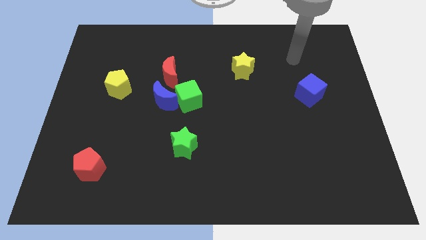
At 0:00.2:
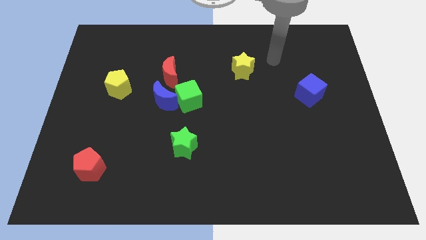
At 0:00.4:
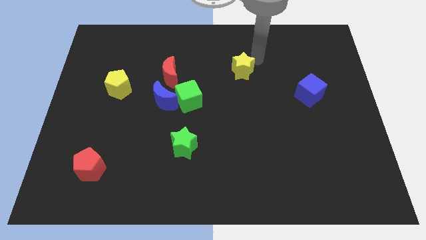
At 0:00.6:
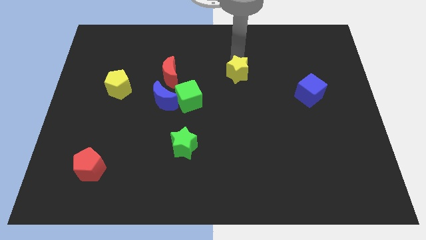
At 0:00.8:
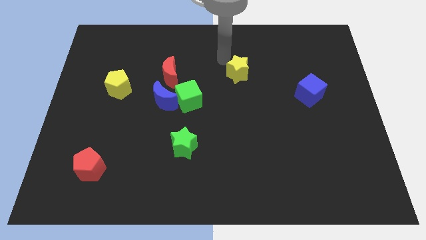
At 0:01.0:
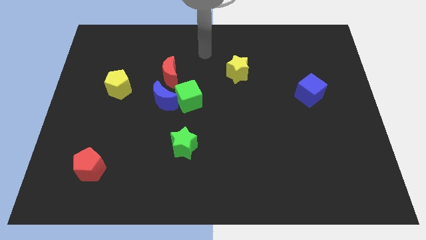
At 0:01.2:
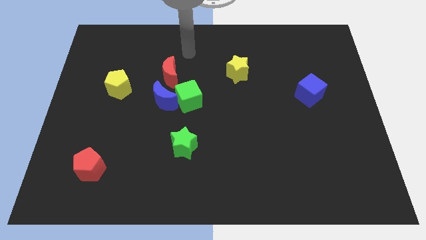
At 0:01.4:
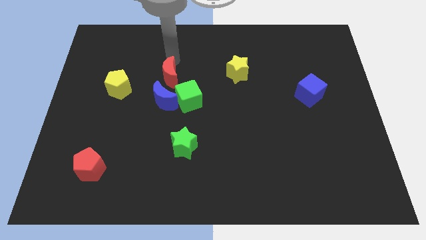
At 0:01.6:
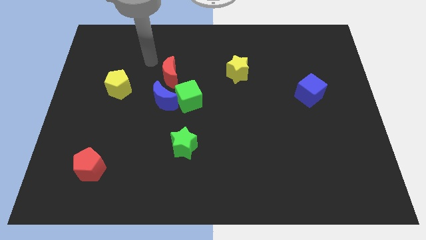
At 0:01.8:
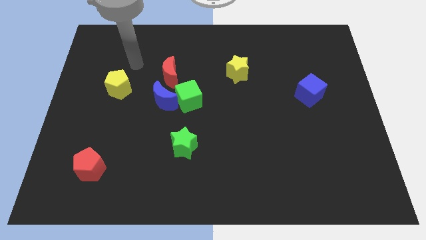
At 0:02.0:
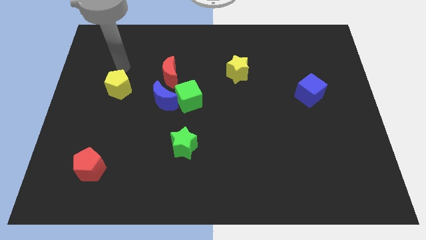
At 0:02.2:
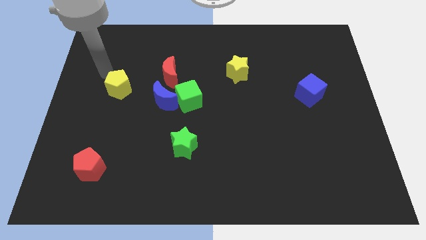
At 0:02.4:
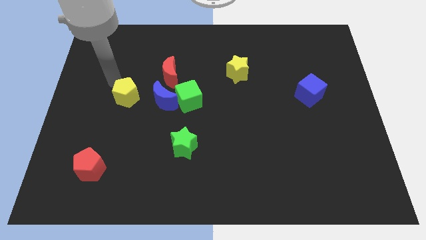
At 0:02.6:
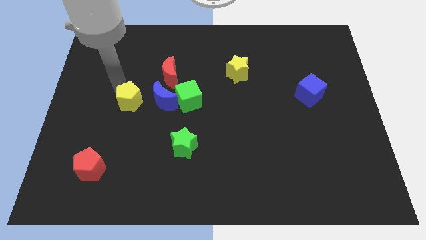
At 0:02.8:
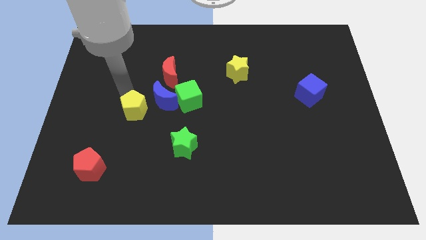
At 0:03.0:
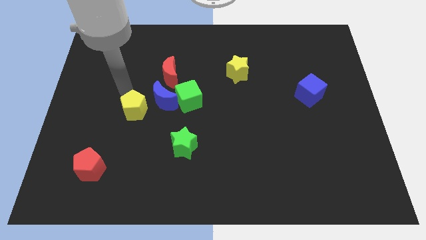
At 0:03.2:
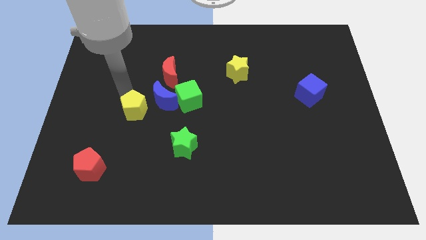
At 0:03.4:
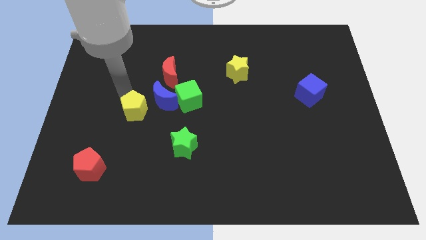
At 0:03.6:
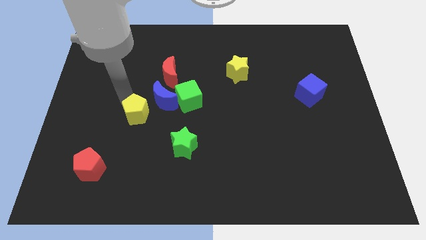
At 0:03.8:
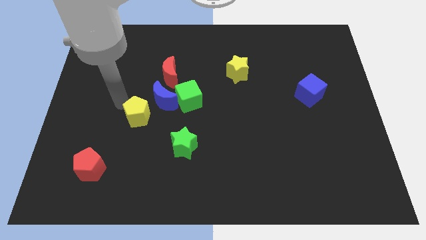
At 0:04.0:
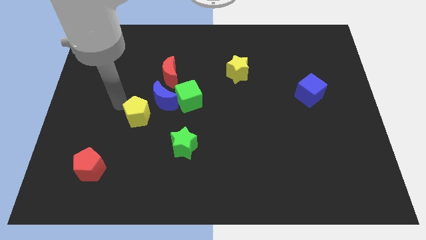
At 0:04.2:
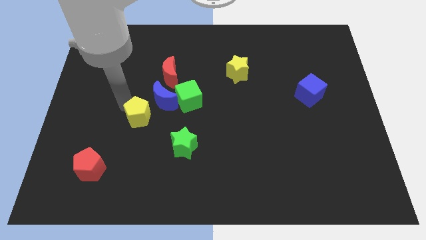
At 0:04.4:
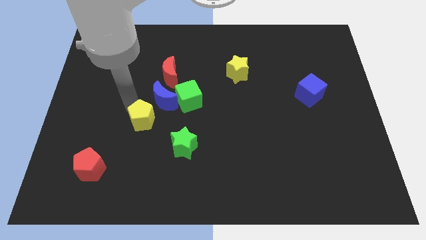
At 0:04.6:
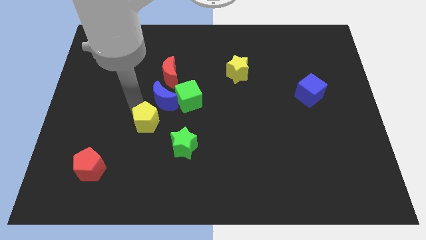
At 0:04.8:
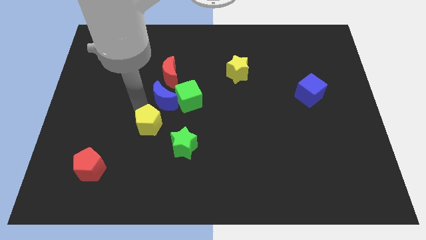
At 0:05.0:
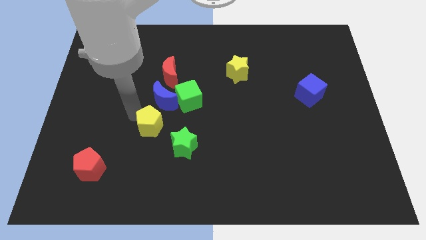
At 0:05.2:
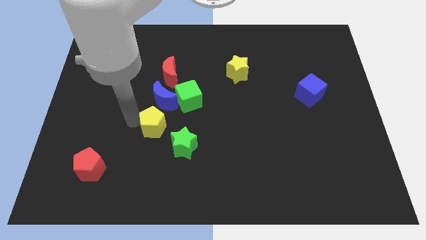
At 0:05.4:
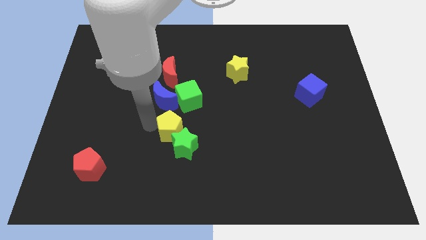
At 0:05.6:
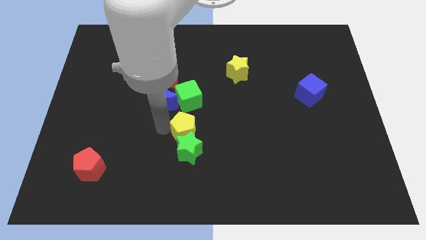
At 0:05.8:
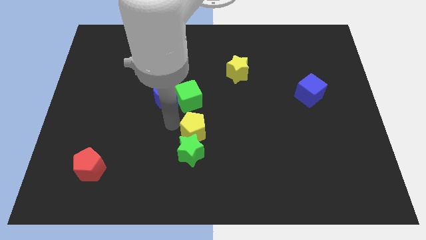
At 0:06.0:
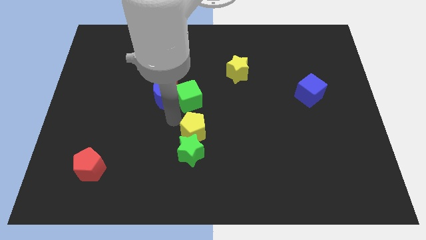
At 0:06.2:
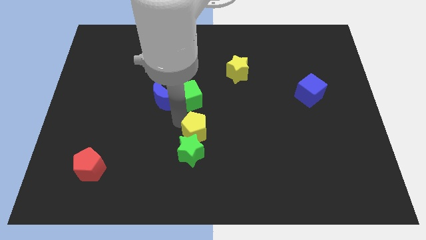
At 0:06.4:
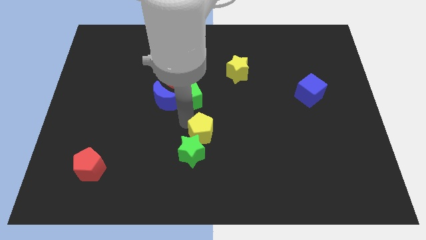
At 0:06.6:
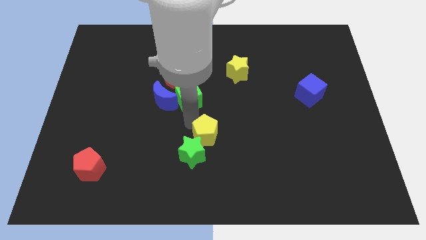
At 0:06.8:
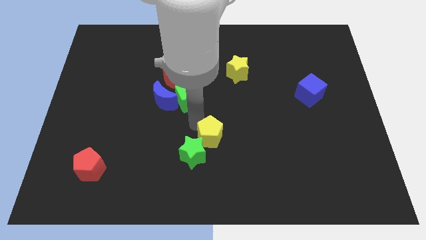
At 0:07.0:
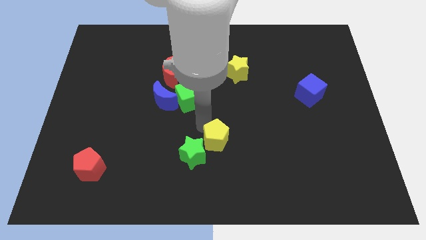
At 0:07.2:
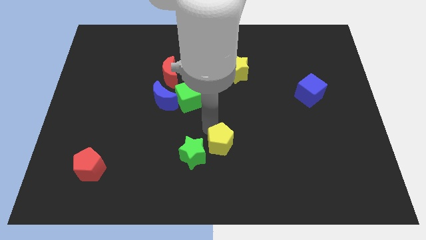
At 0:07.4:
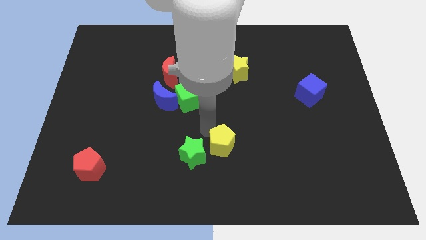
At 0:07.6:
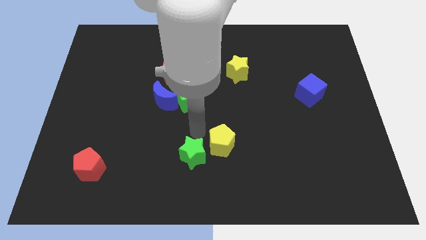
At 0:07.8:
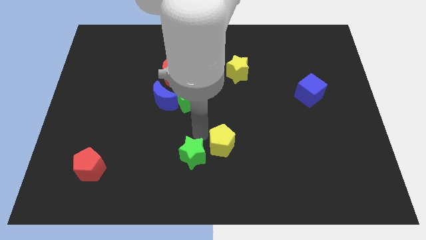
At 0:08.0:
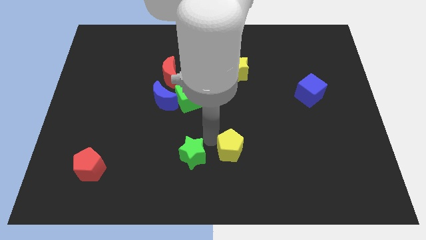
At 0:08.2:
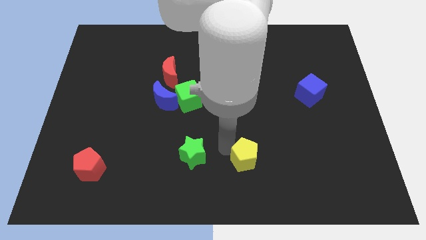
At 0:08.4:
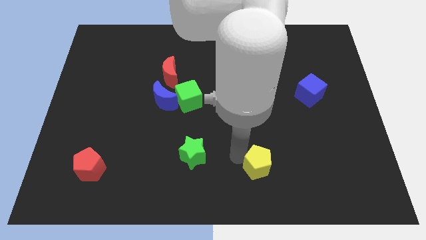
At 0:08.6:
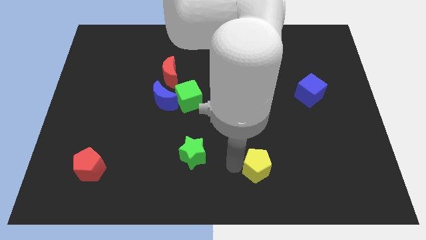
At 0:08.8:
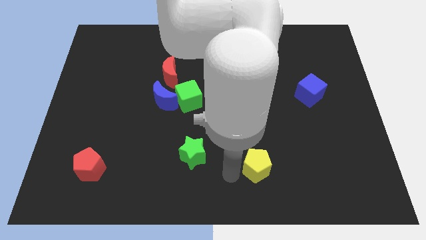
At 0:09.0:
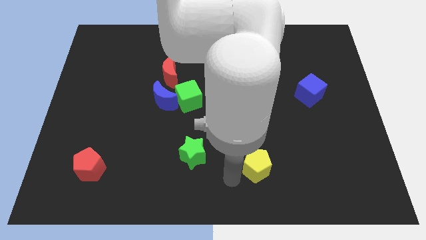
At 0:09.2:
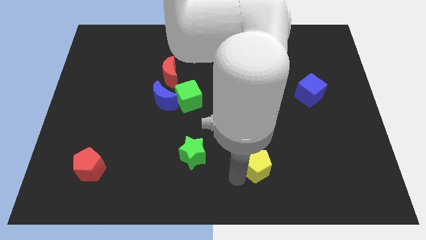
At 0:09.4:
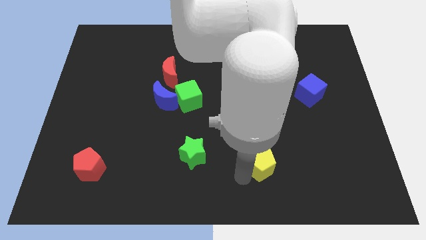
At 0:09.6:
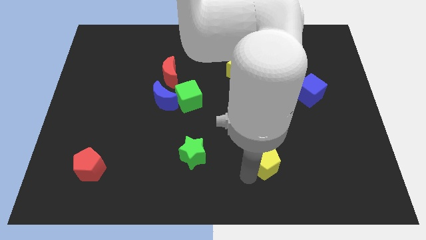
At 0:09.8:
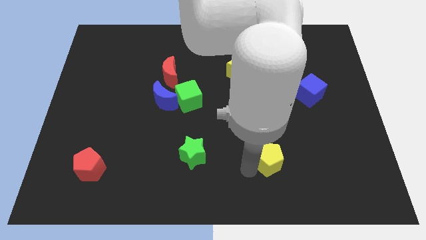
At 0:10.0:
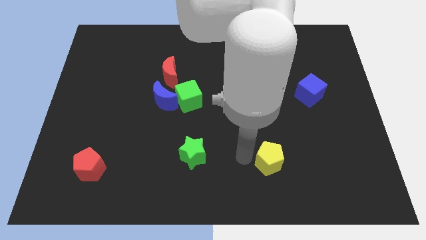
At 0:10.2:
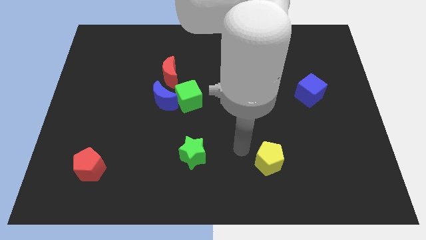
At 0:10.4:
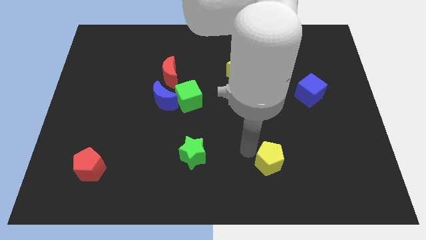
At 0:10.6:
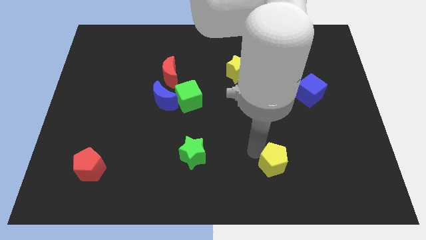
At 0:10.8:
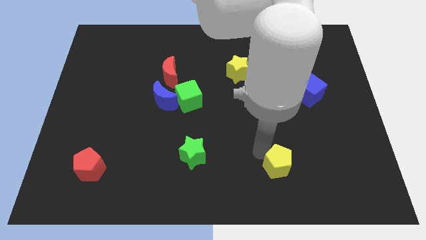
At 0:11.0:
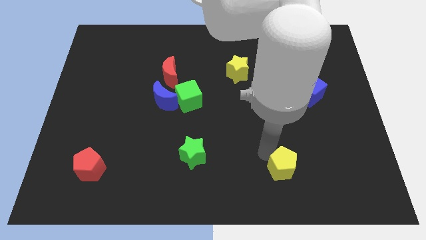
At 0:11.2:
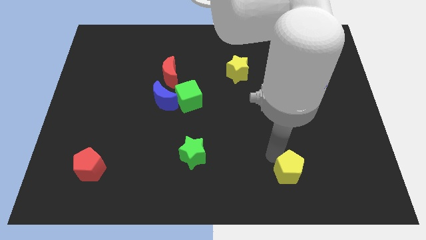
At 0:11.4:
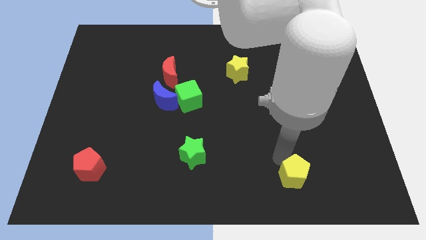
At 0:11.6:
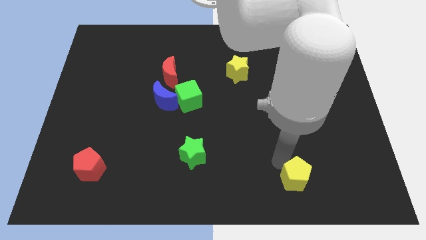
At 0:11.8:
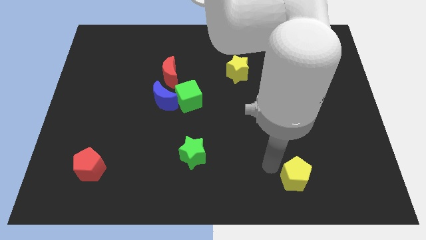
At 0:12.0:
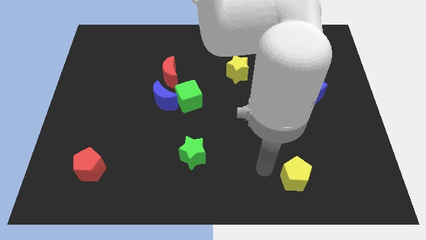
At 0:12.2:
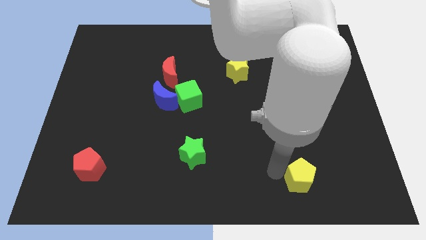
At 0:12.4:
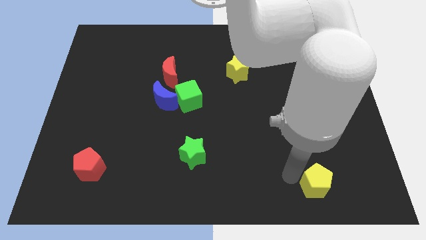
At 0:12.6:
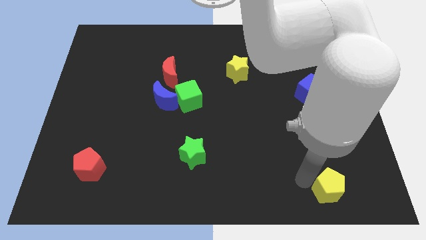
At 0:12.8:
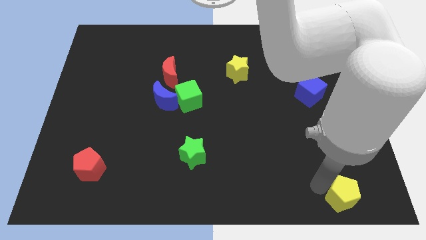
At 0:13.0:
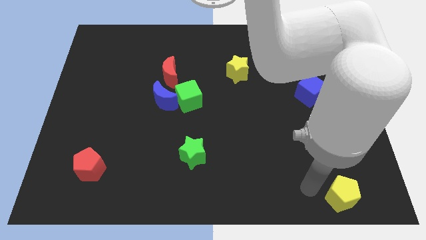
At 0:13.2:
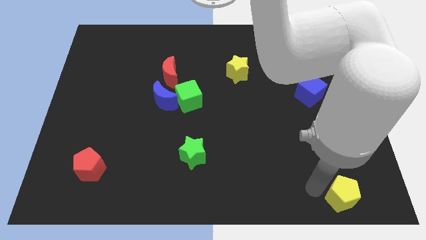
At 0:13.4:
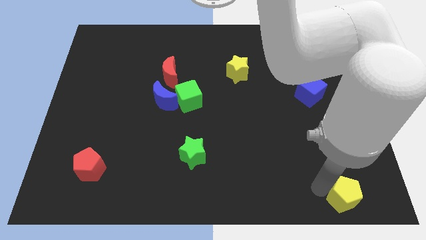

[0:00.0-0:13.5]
push the yellow pentagon to the lower right corner

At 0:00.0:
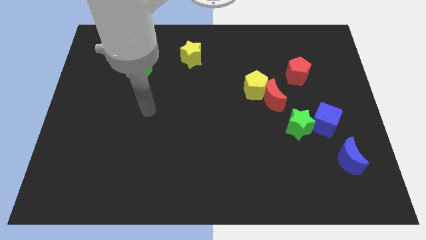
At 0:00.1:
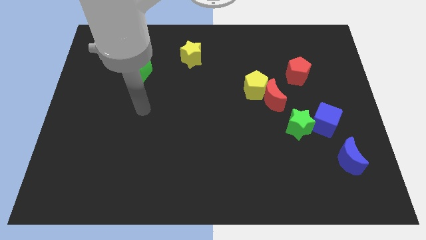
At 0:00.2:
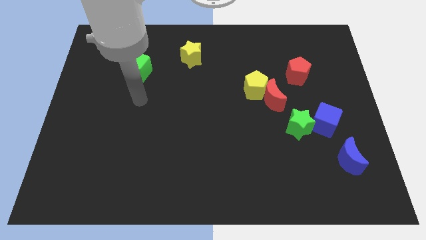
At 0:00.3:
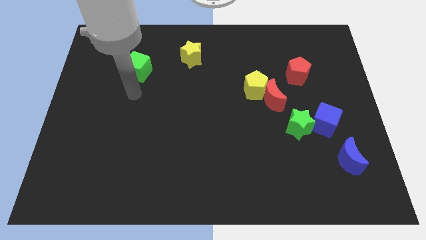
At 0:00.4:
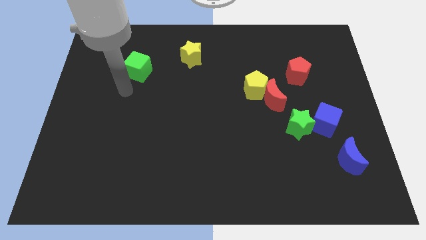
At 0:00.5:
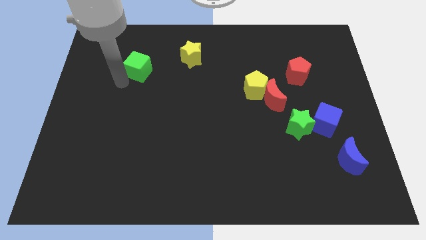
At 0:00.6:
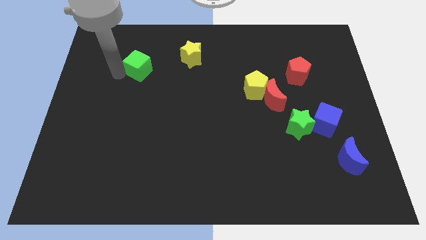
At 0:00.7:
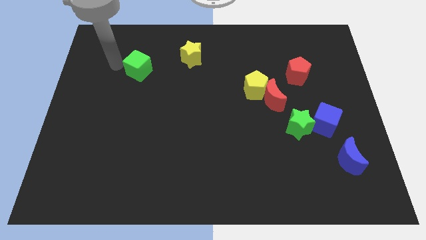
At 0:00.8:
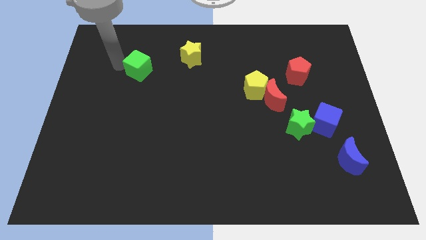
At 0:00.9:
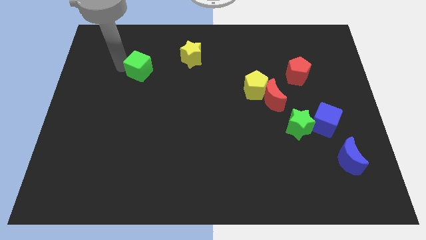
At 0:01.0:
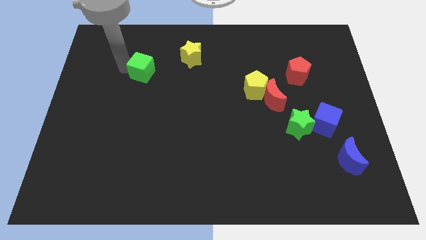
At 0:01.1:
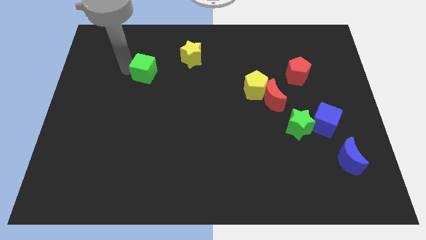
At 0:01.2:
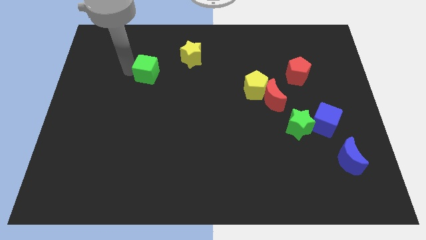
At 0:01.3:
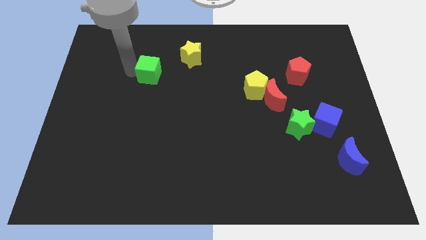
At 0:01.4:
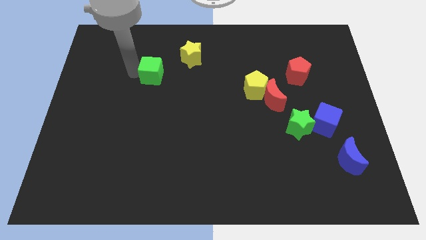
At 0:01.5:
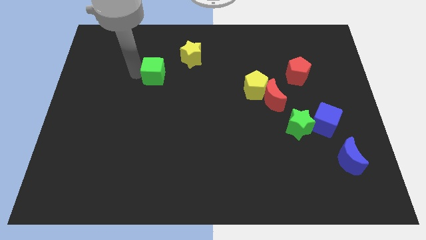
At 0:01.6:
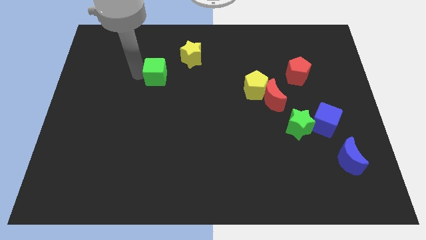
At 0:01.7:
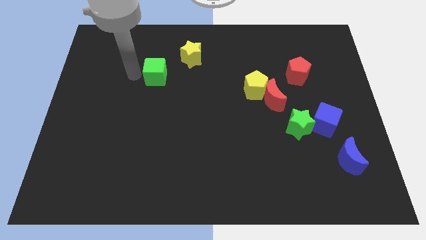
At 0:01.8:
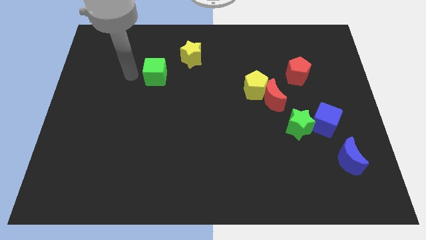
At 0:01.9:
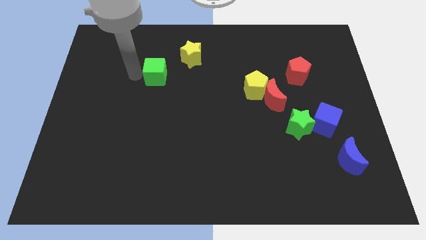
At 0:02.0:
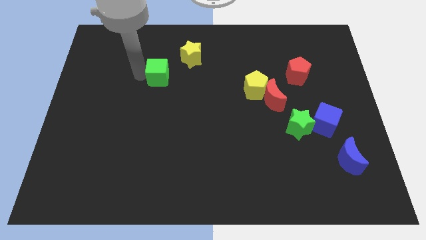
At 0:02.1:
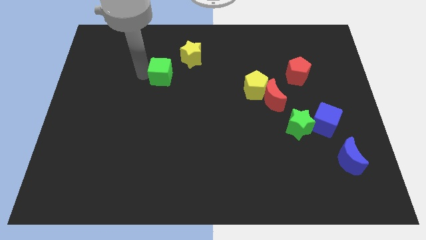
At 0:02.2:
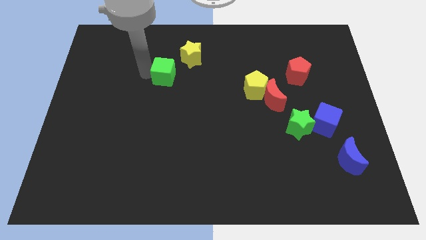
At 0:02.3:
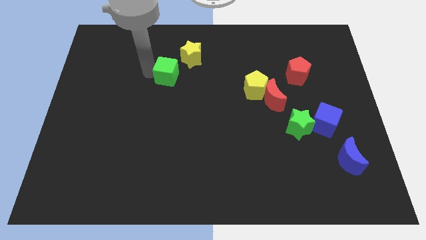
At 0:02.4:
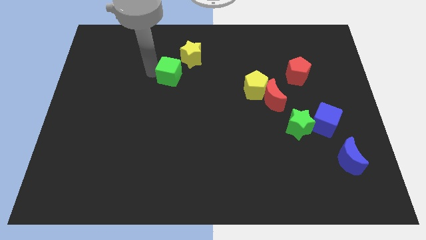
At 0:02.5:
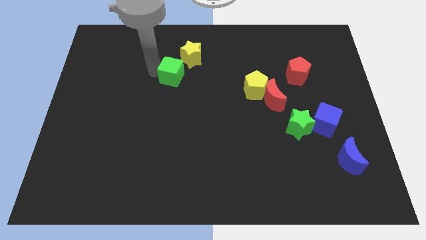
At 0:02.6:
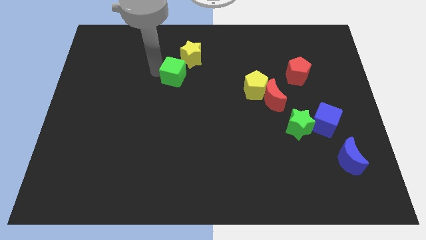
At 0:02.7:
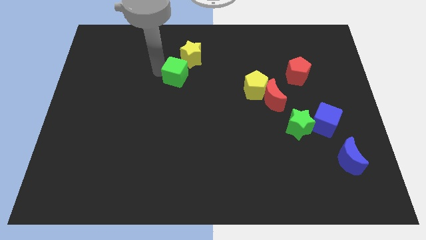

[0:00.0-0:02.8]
push the green cube to the center of the board
